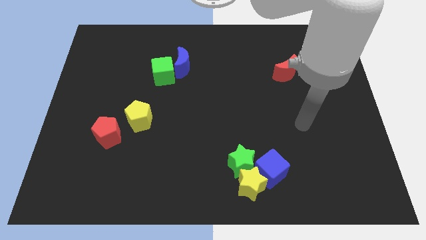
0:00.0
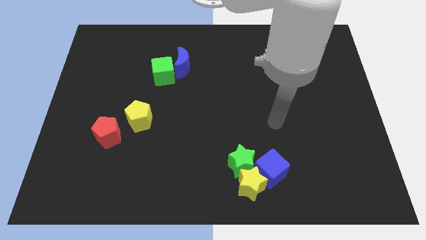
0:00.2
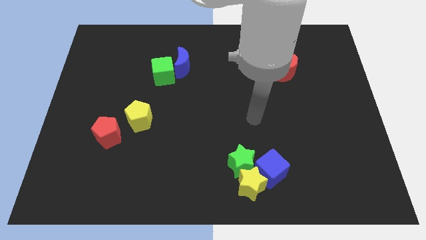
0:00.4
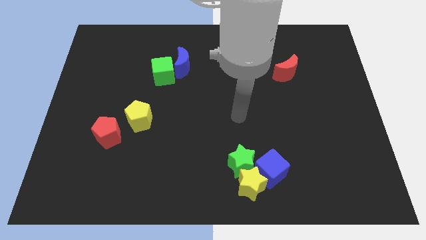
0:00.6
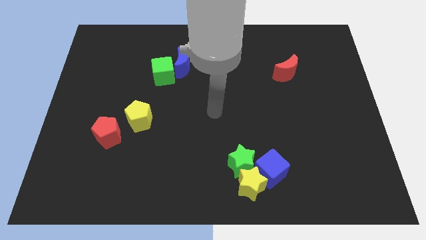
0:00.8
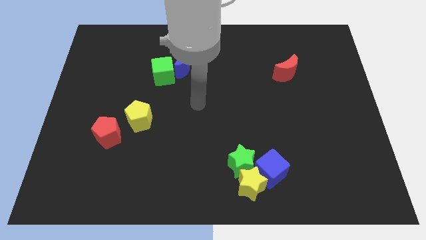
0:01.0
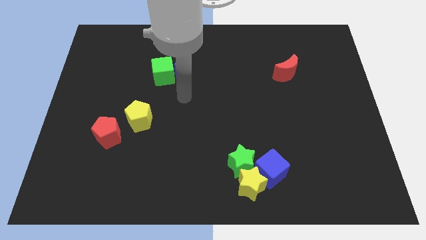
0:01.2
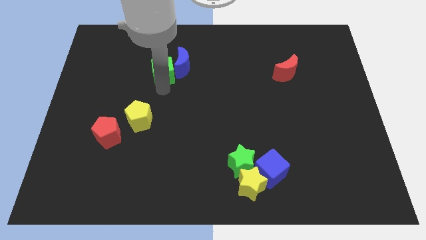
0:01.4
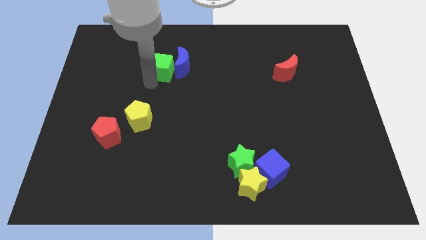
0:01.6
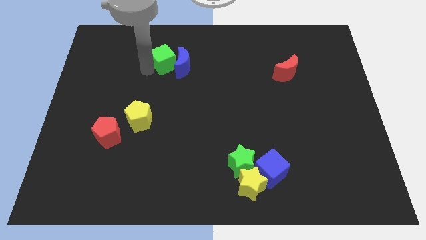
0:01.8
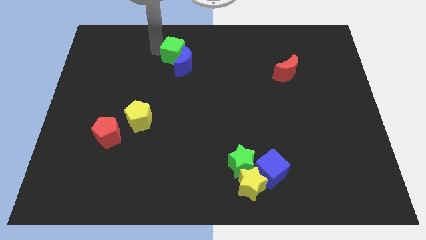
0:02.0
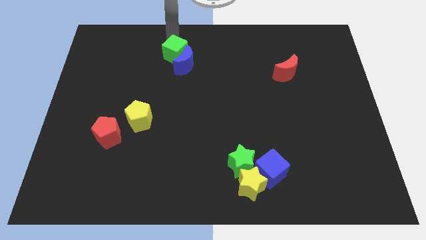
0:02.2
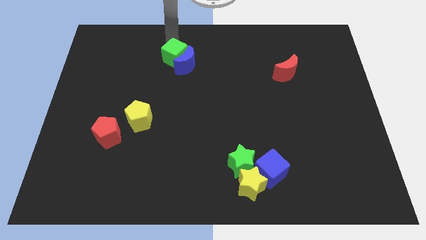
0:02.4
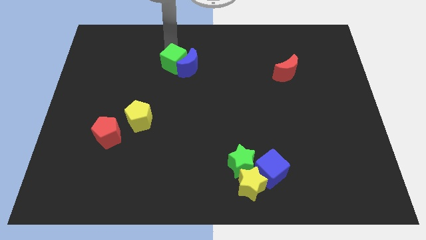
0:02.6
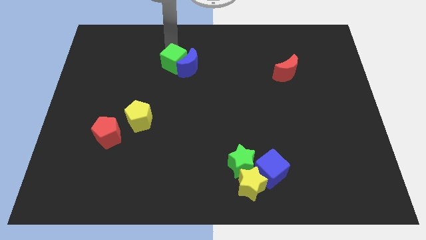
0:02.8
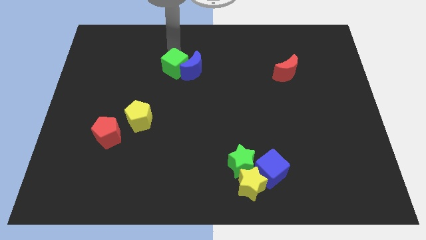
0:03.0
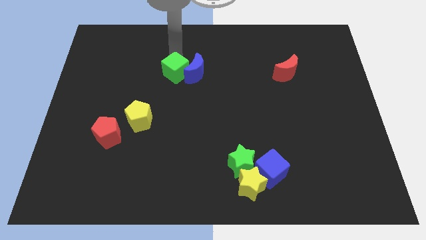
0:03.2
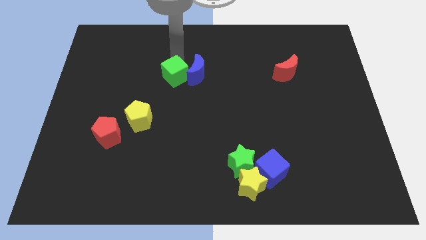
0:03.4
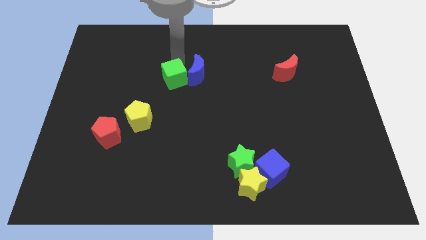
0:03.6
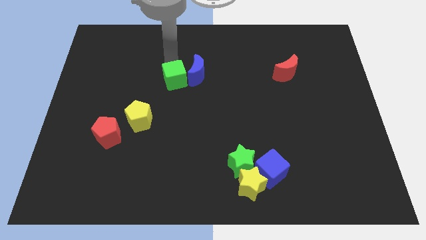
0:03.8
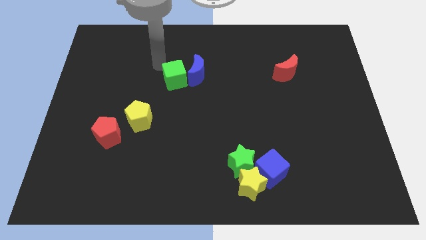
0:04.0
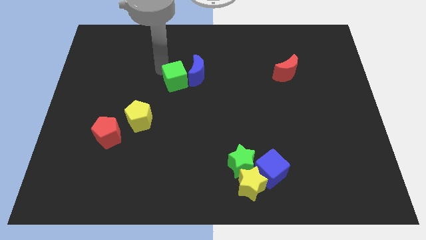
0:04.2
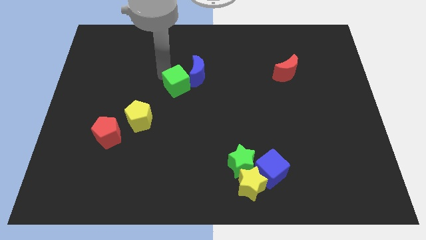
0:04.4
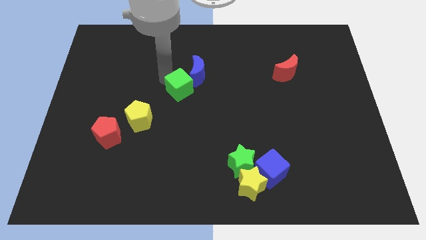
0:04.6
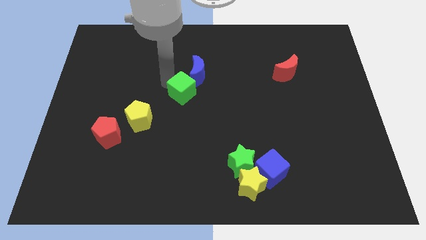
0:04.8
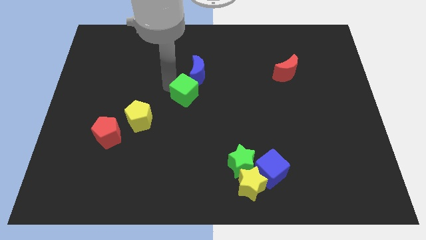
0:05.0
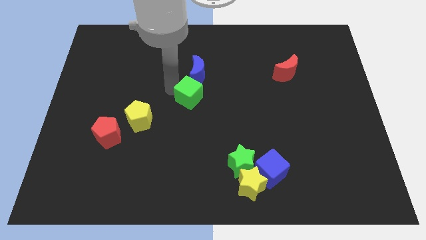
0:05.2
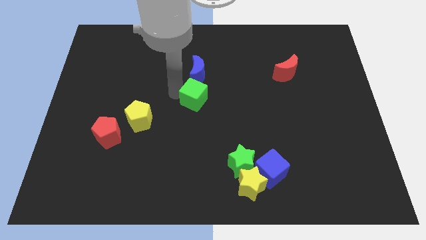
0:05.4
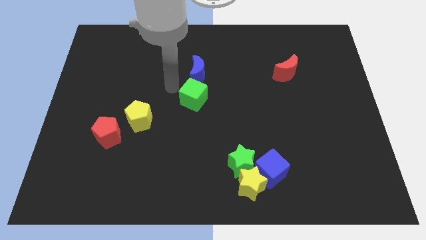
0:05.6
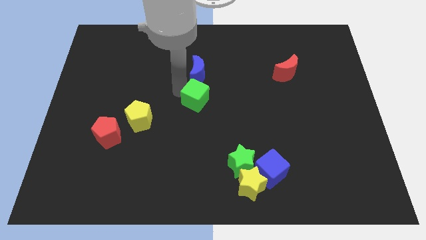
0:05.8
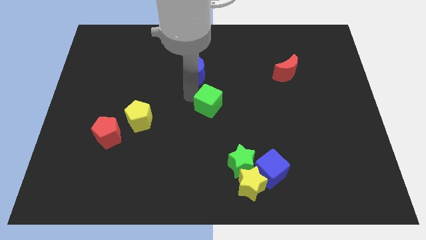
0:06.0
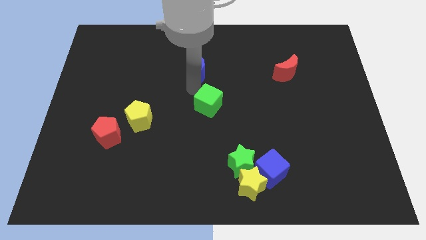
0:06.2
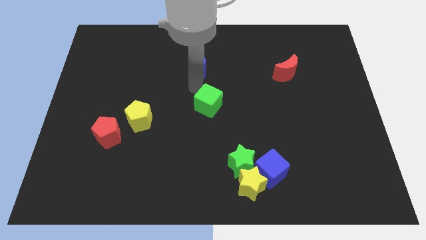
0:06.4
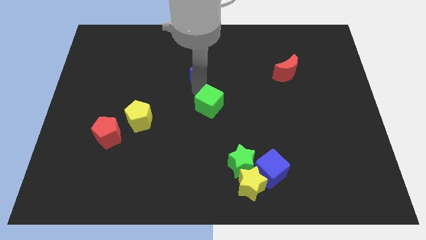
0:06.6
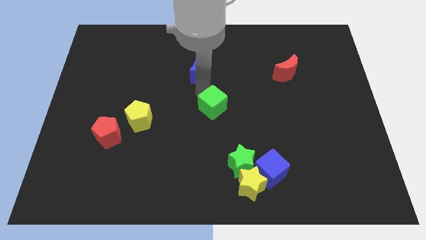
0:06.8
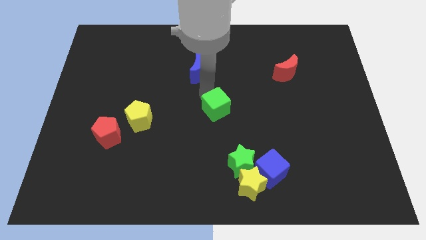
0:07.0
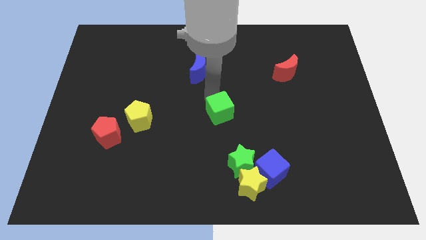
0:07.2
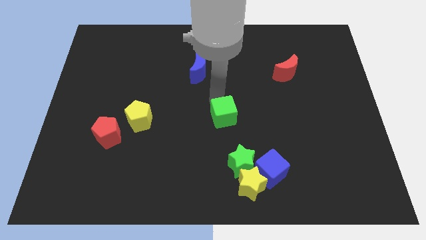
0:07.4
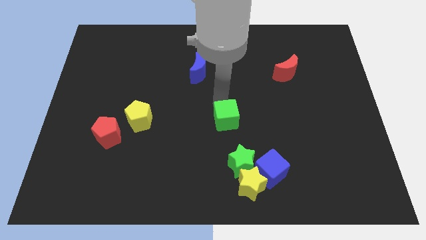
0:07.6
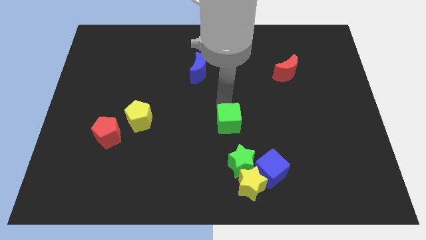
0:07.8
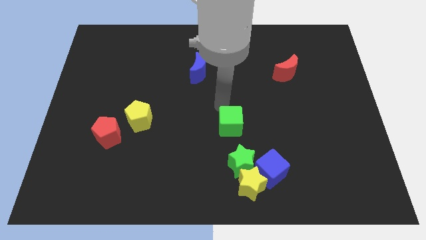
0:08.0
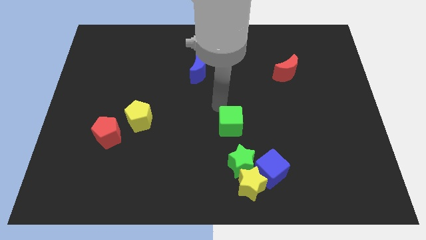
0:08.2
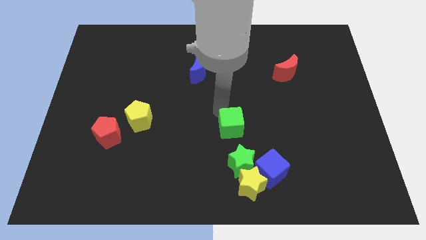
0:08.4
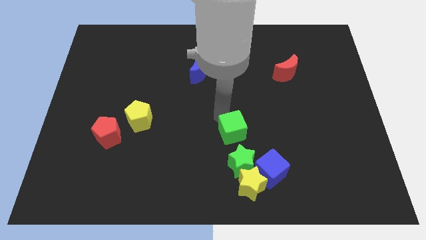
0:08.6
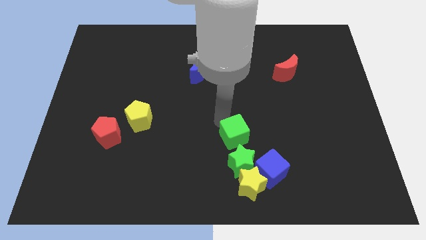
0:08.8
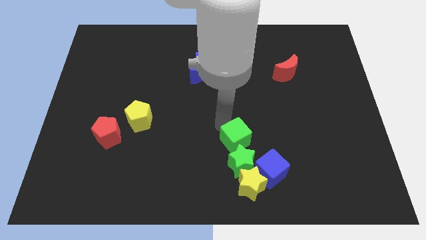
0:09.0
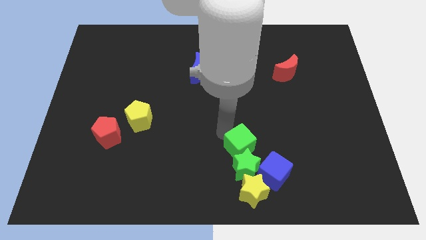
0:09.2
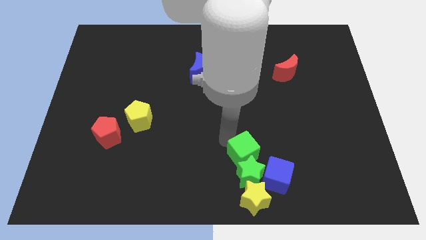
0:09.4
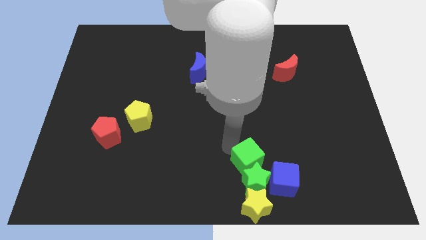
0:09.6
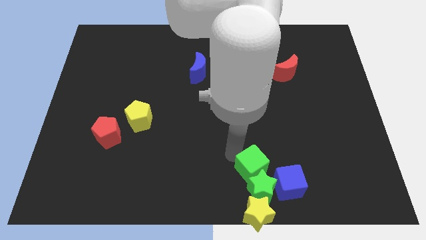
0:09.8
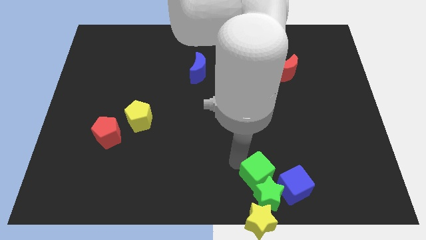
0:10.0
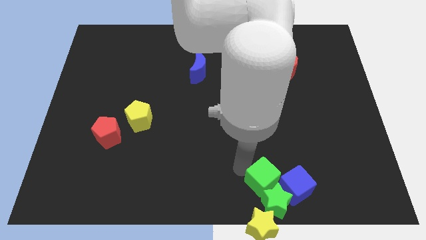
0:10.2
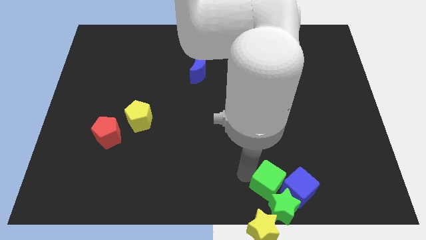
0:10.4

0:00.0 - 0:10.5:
slide the green cube towards the blue cube

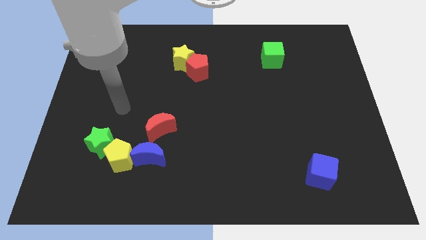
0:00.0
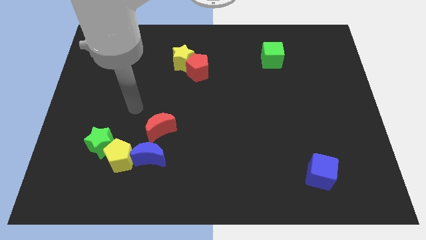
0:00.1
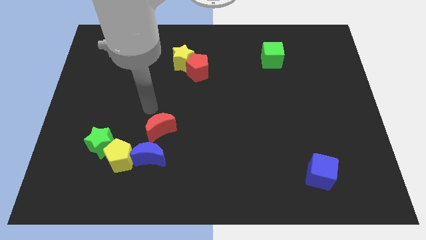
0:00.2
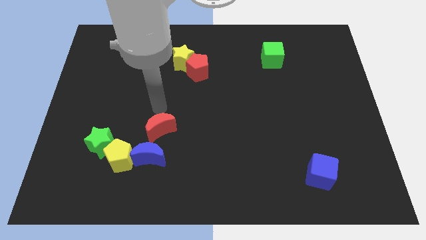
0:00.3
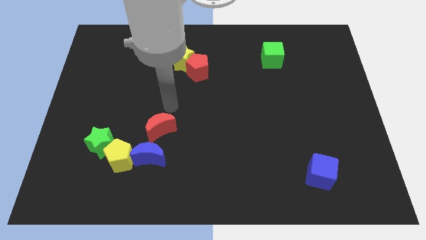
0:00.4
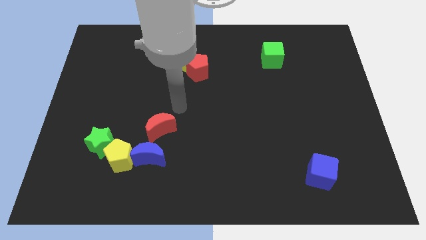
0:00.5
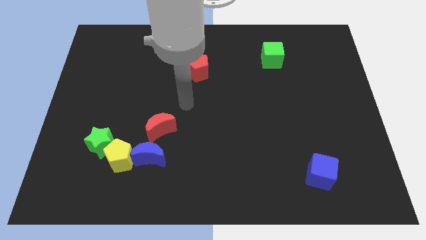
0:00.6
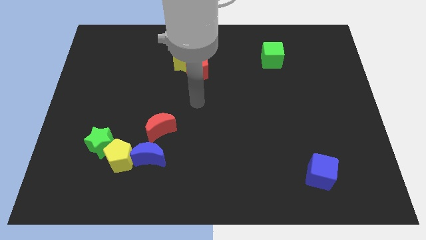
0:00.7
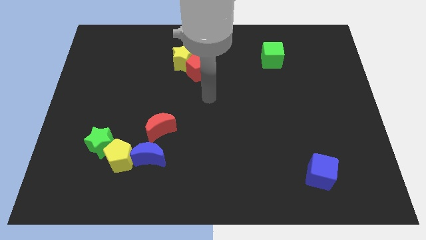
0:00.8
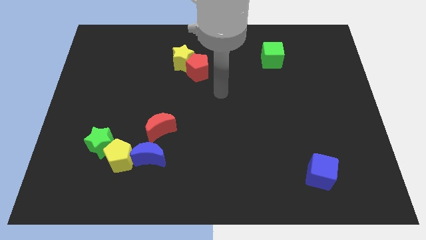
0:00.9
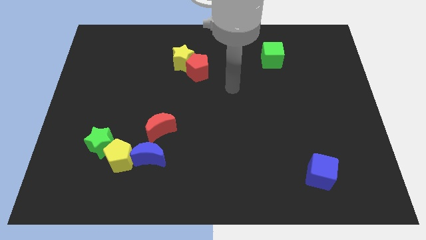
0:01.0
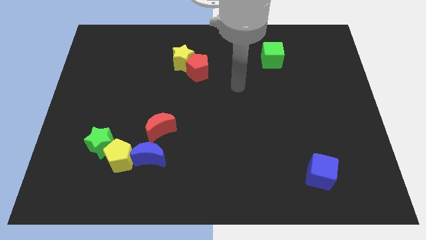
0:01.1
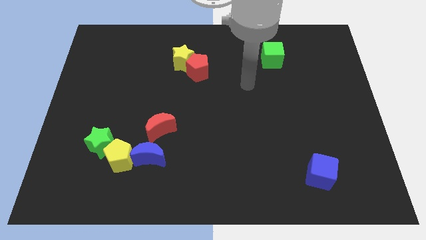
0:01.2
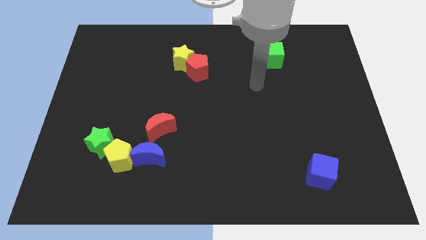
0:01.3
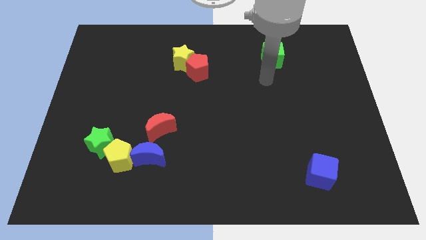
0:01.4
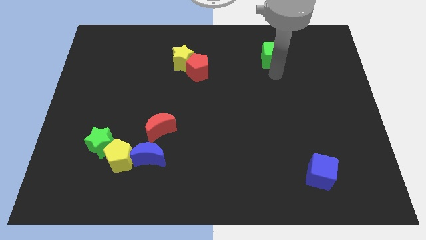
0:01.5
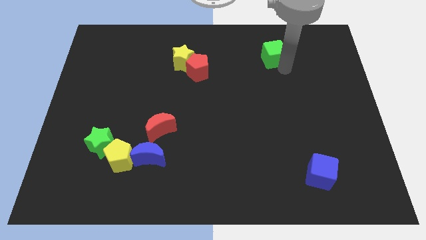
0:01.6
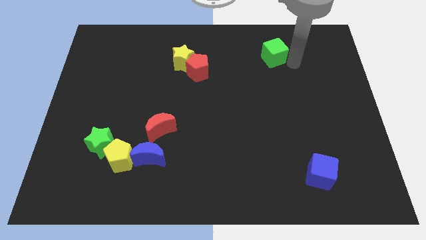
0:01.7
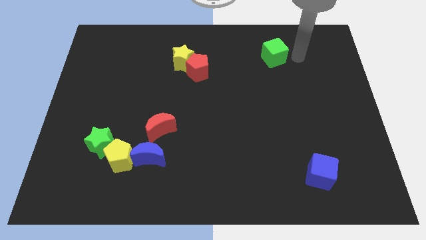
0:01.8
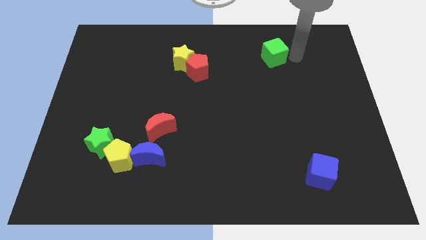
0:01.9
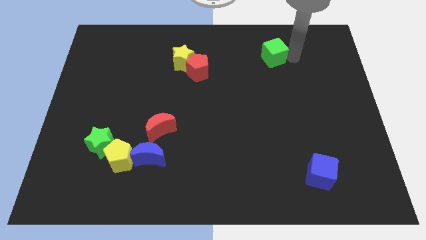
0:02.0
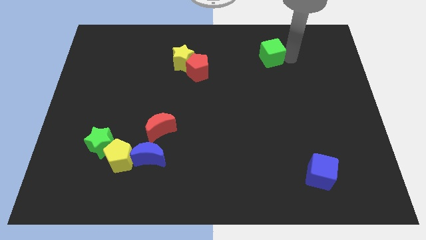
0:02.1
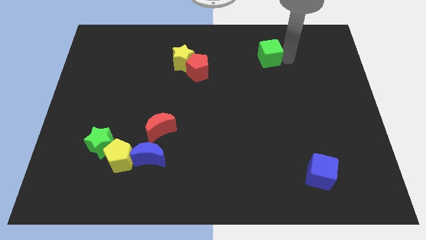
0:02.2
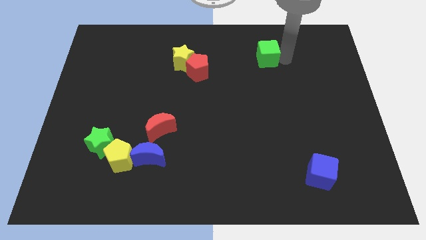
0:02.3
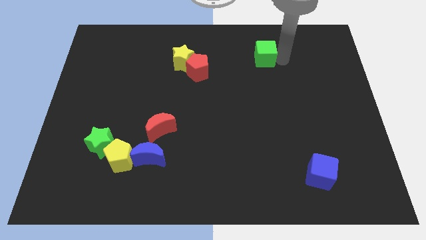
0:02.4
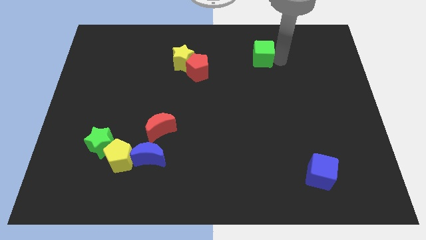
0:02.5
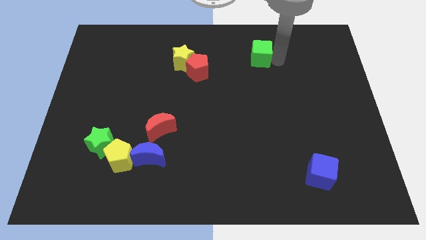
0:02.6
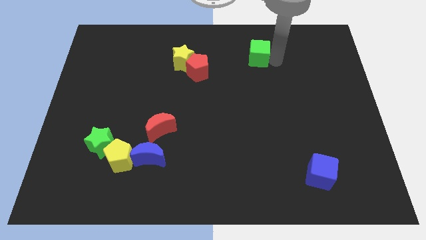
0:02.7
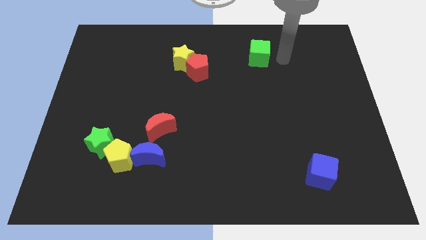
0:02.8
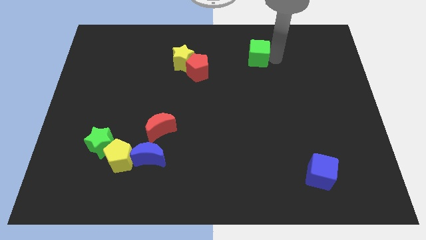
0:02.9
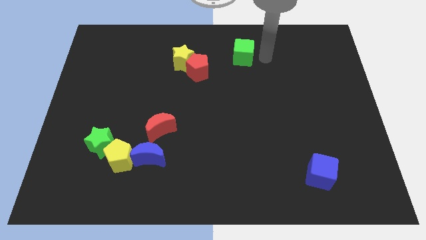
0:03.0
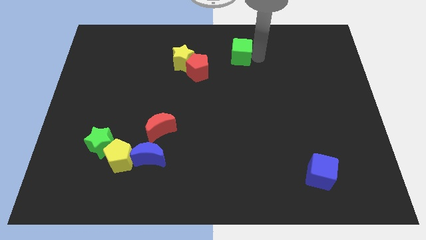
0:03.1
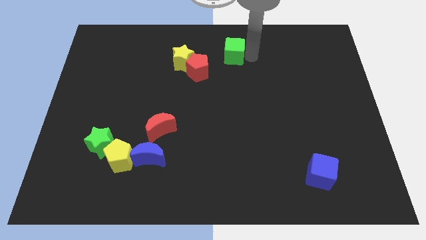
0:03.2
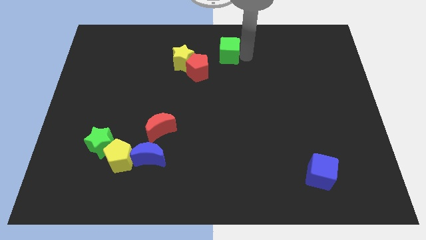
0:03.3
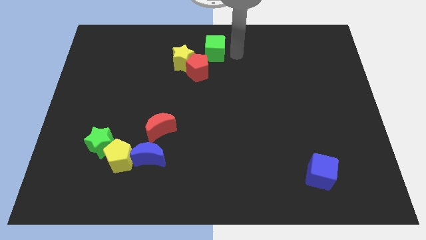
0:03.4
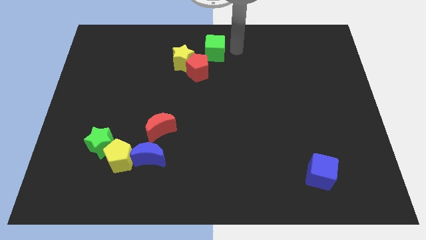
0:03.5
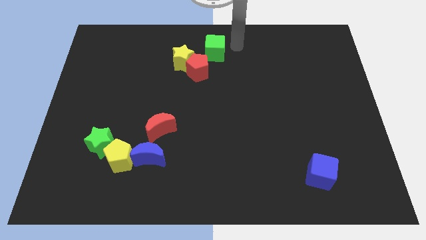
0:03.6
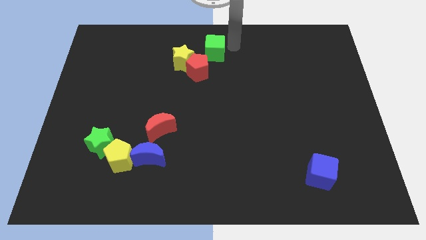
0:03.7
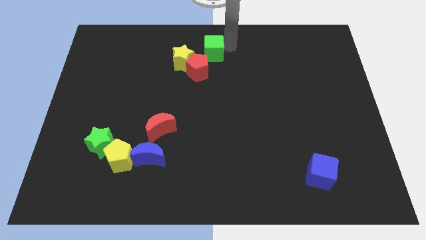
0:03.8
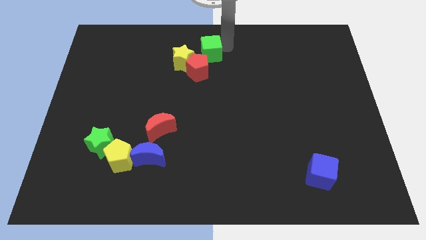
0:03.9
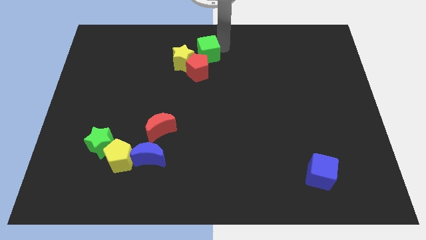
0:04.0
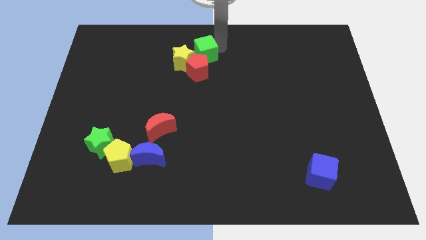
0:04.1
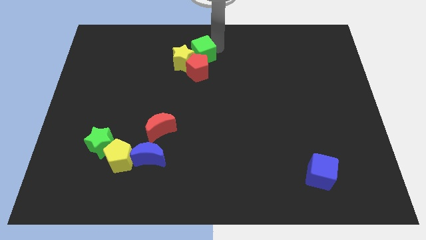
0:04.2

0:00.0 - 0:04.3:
move the green cube next to the yellow star
